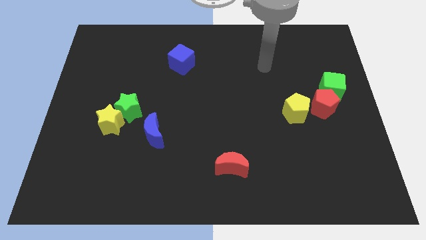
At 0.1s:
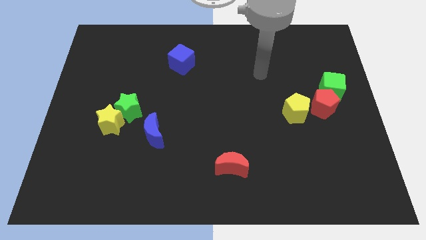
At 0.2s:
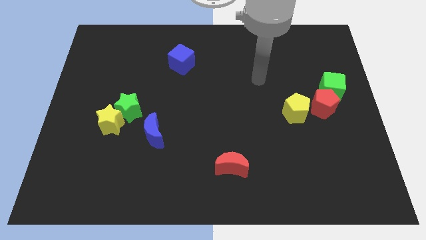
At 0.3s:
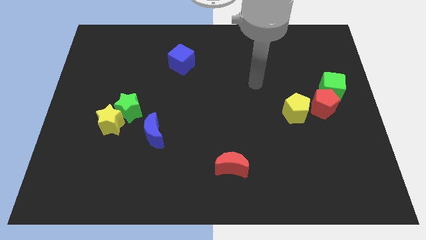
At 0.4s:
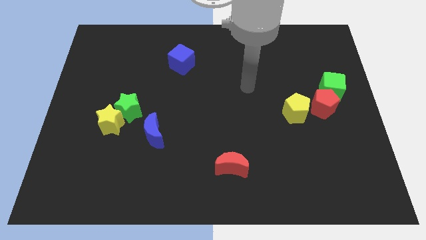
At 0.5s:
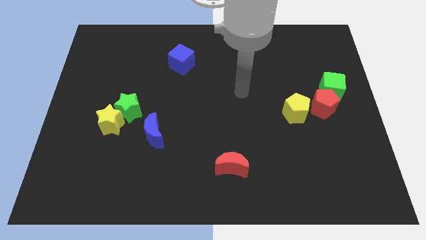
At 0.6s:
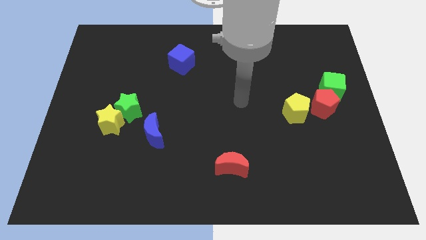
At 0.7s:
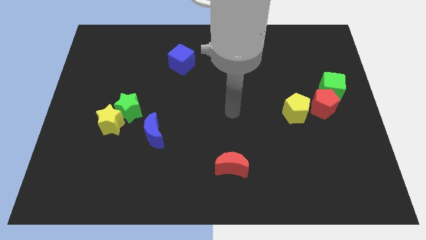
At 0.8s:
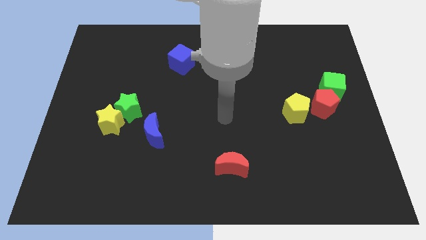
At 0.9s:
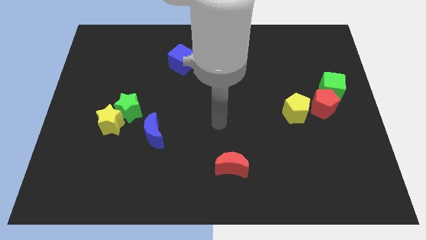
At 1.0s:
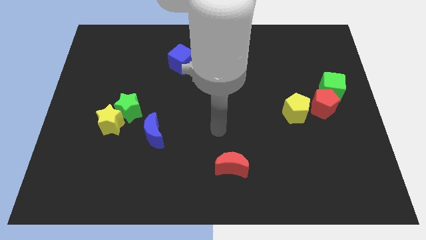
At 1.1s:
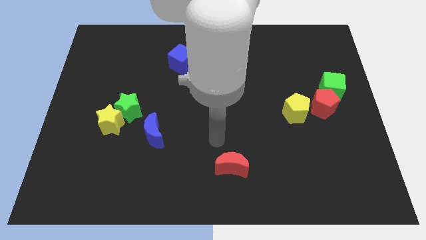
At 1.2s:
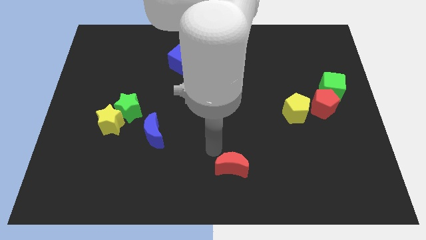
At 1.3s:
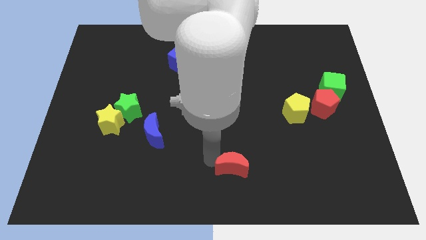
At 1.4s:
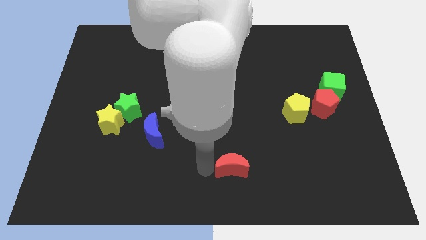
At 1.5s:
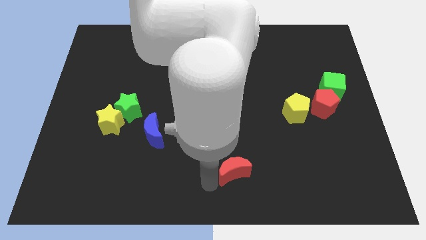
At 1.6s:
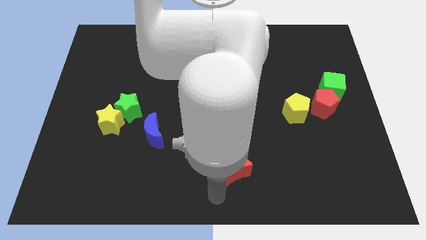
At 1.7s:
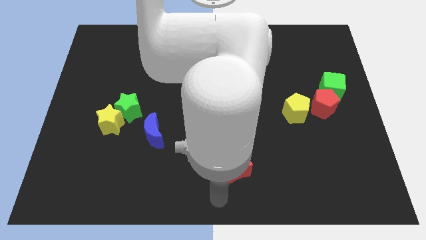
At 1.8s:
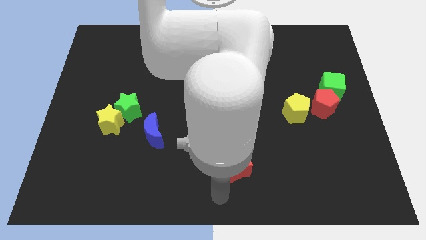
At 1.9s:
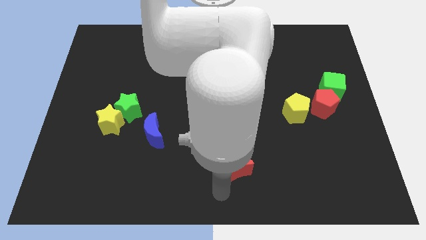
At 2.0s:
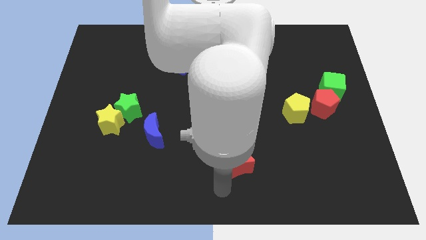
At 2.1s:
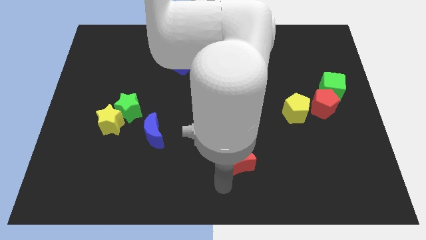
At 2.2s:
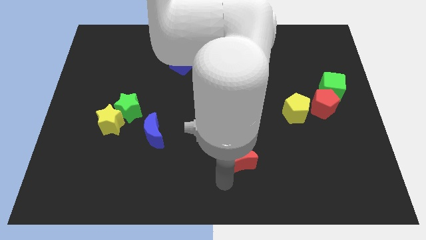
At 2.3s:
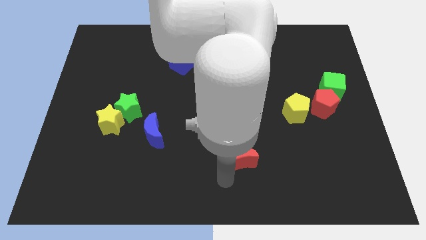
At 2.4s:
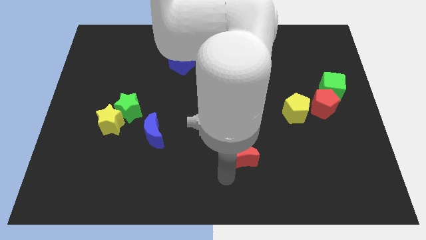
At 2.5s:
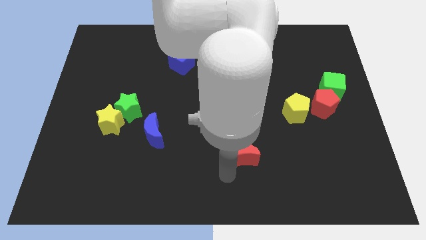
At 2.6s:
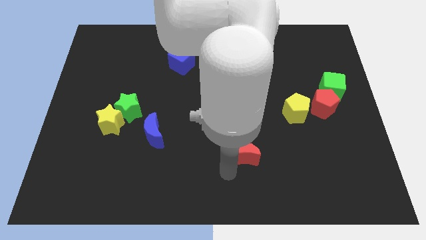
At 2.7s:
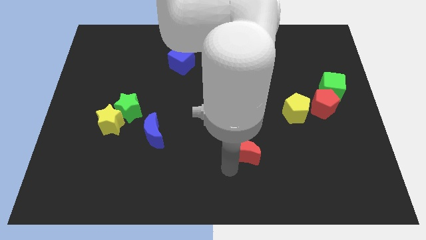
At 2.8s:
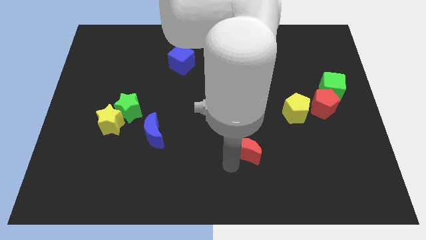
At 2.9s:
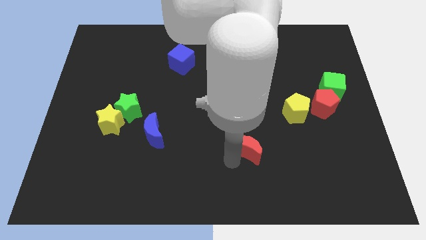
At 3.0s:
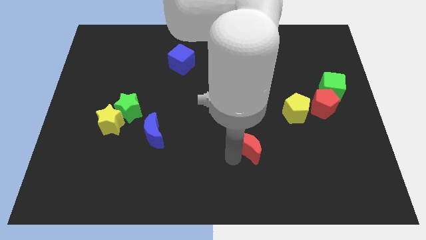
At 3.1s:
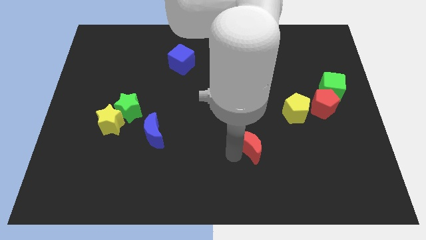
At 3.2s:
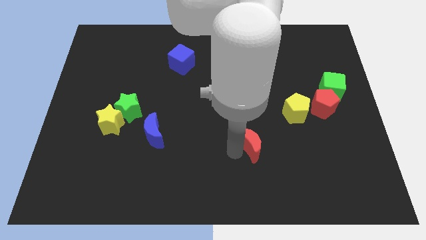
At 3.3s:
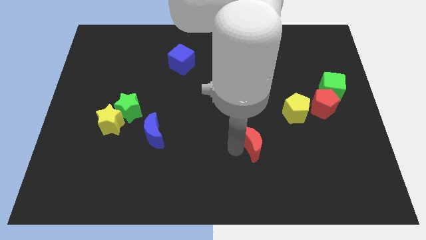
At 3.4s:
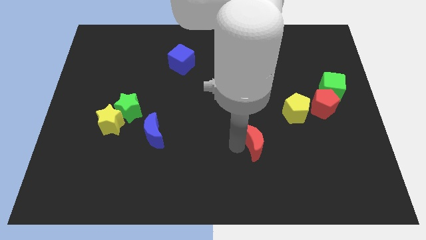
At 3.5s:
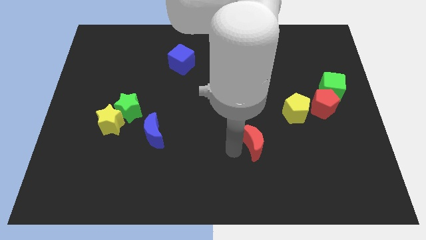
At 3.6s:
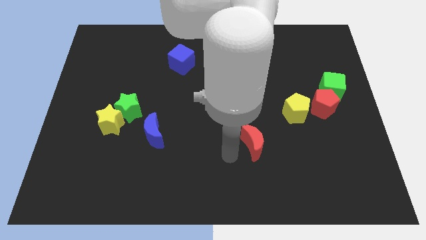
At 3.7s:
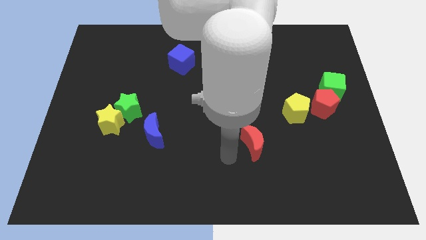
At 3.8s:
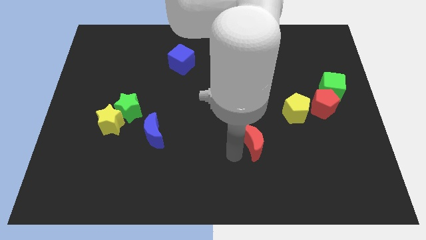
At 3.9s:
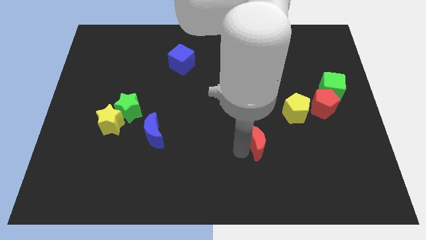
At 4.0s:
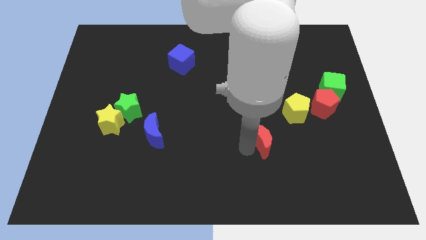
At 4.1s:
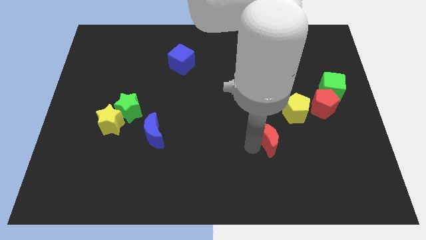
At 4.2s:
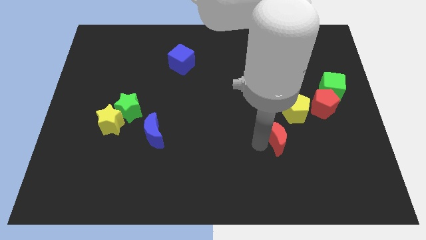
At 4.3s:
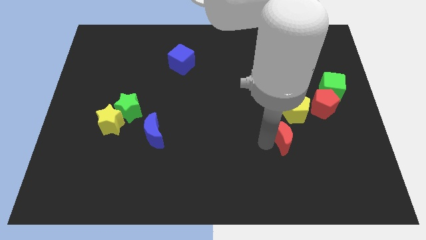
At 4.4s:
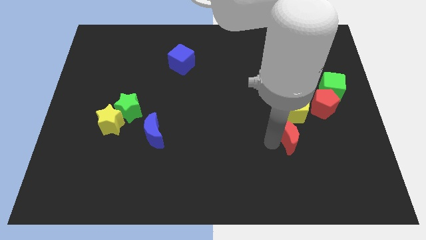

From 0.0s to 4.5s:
slide the red moon diagonally down and to the left of the red pentagon

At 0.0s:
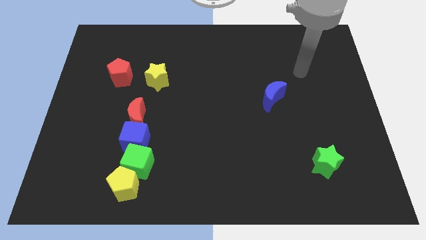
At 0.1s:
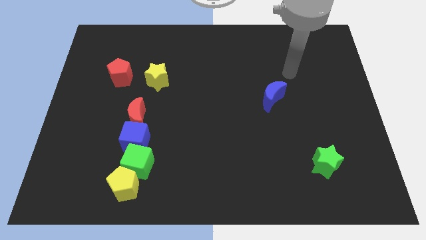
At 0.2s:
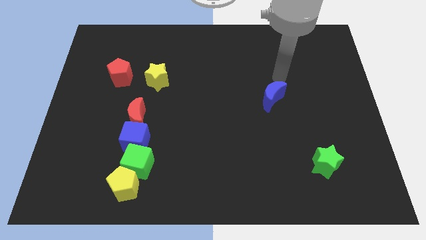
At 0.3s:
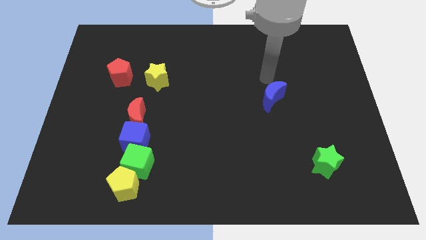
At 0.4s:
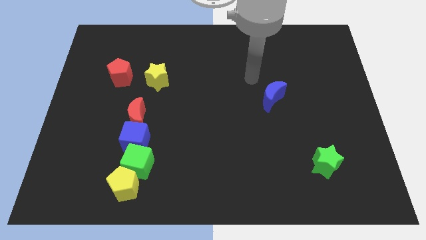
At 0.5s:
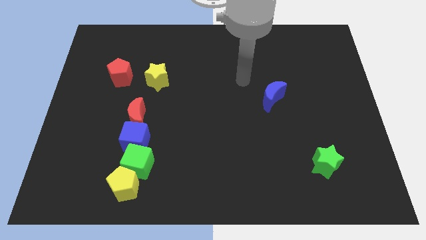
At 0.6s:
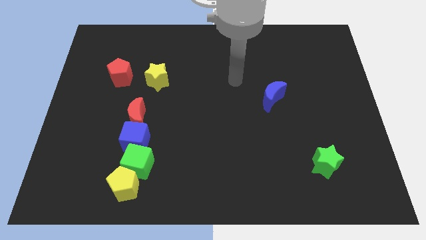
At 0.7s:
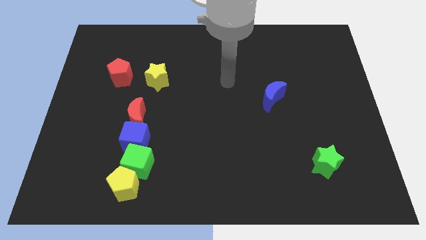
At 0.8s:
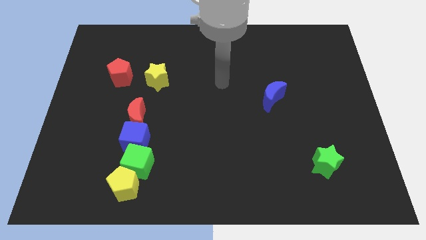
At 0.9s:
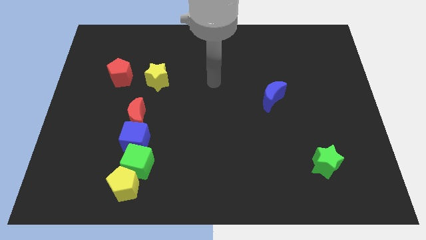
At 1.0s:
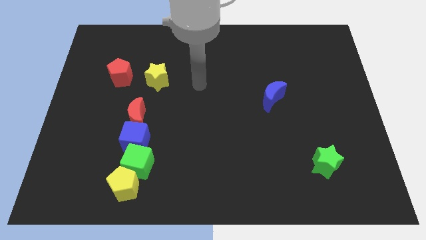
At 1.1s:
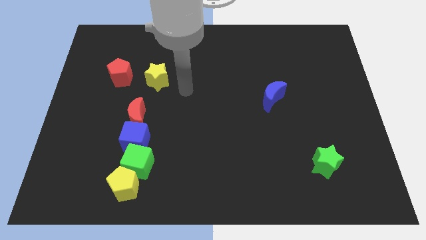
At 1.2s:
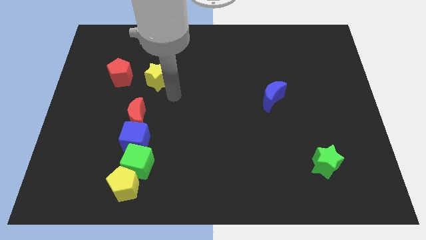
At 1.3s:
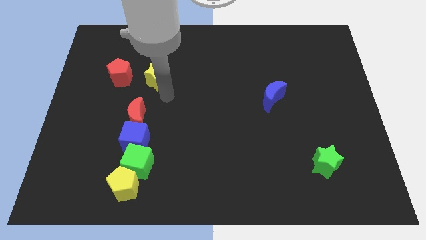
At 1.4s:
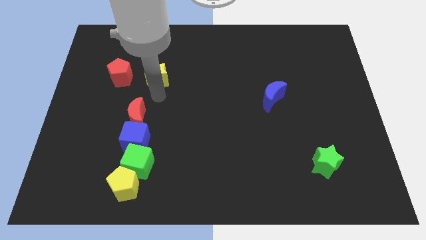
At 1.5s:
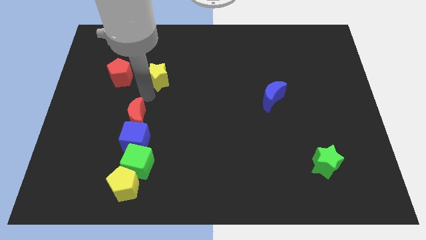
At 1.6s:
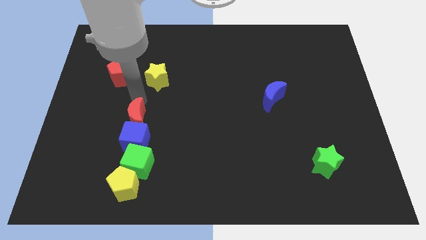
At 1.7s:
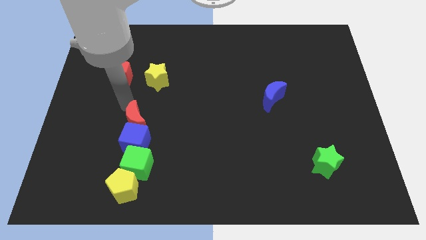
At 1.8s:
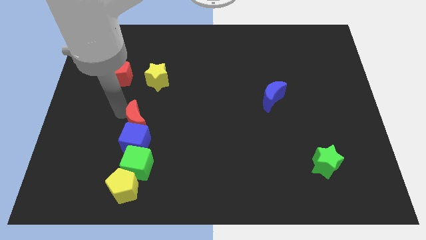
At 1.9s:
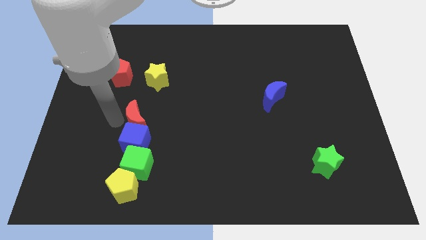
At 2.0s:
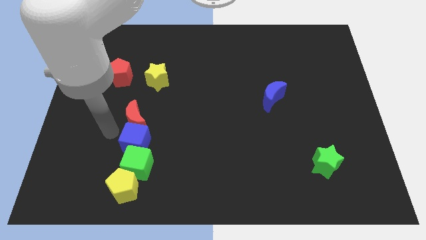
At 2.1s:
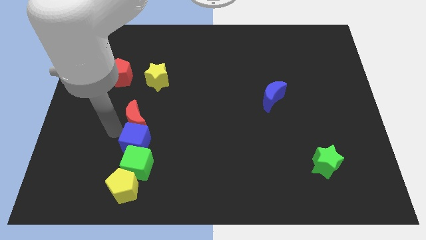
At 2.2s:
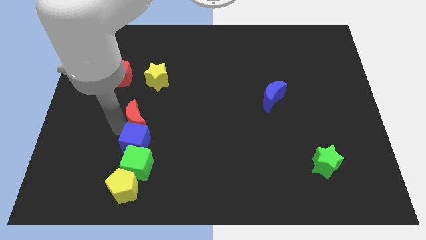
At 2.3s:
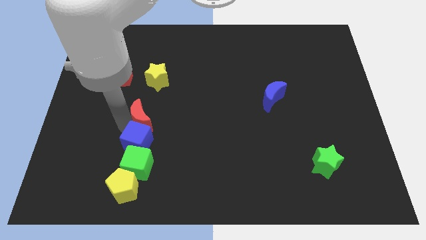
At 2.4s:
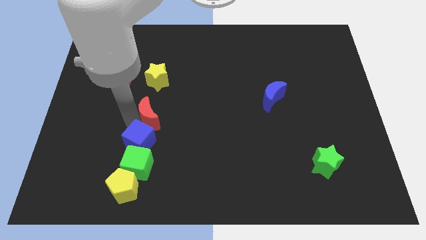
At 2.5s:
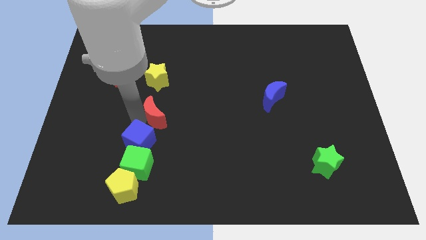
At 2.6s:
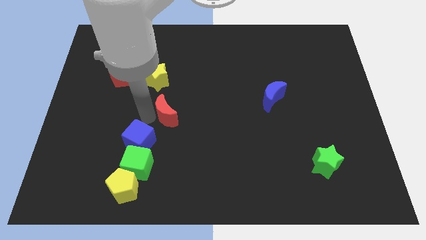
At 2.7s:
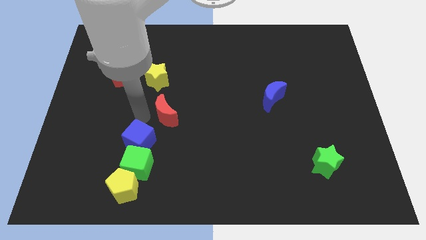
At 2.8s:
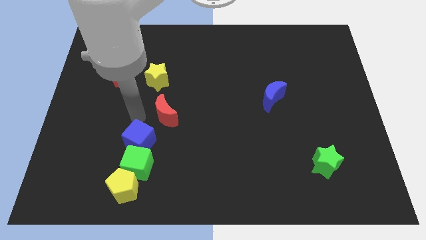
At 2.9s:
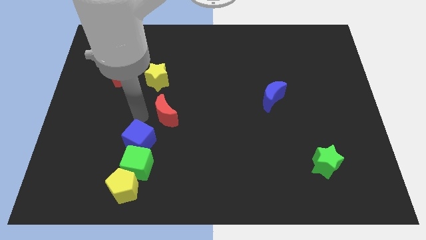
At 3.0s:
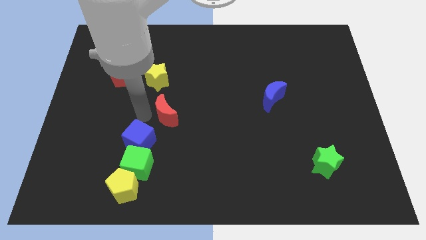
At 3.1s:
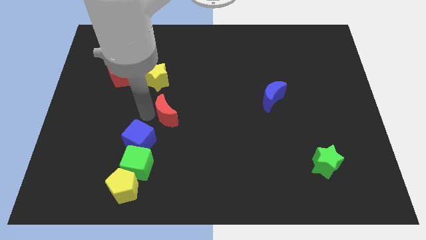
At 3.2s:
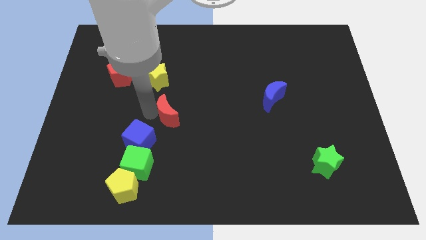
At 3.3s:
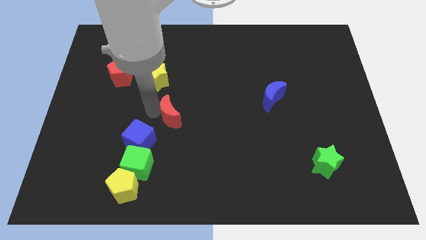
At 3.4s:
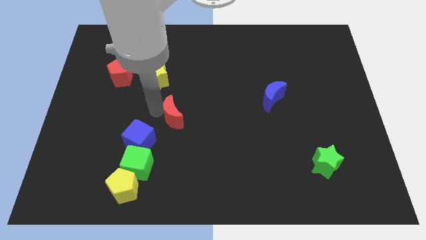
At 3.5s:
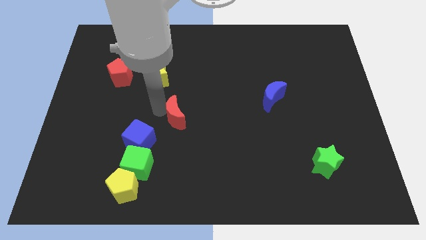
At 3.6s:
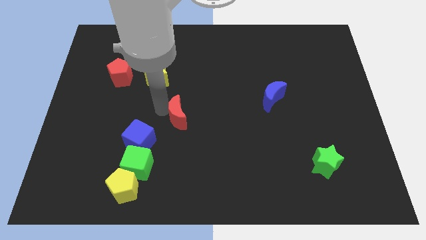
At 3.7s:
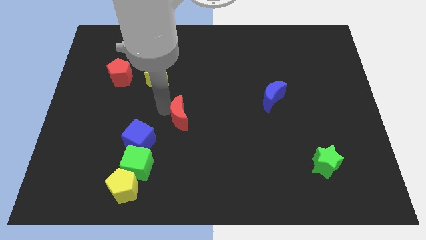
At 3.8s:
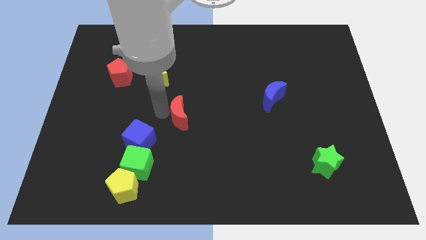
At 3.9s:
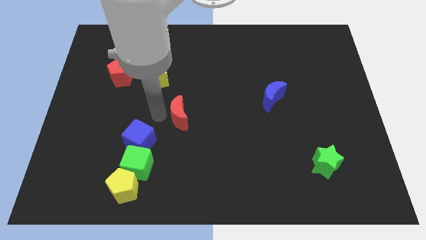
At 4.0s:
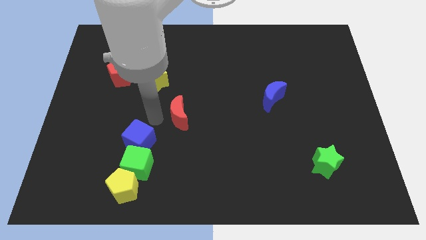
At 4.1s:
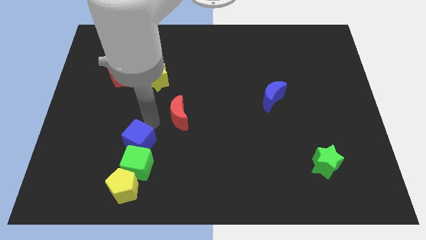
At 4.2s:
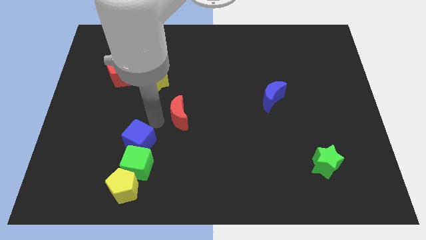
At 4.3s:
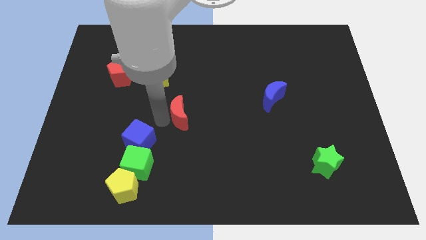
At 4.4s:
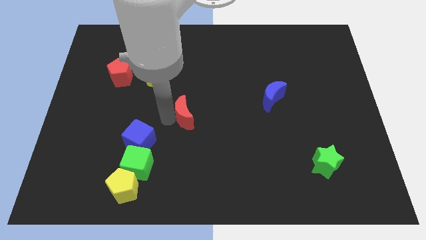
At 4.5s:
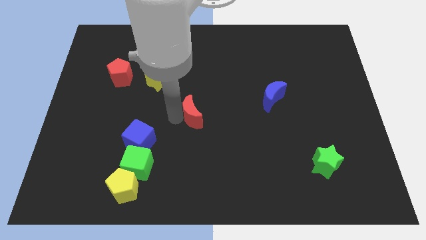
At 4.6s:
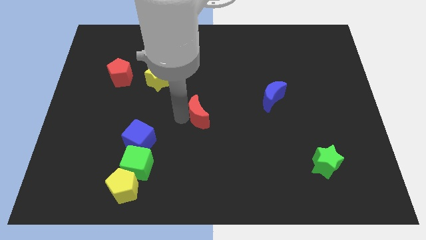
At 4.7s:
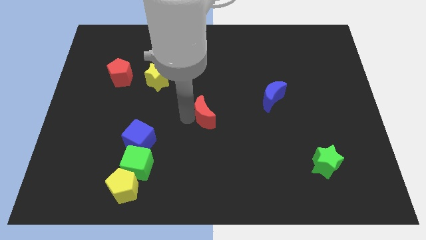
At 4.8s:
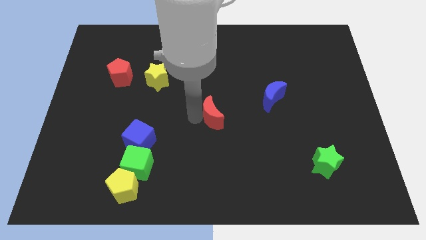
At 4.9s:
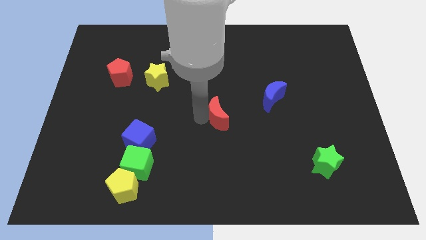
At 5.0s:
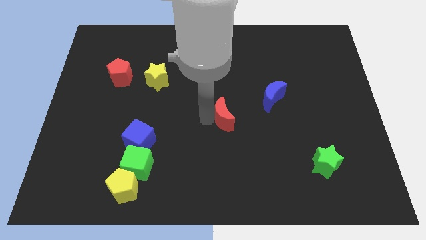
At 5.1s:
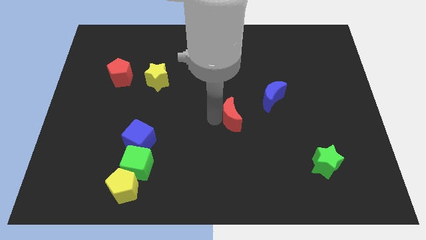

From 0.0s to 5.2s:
move the red moon to the bottom left of the blue moon
